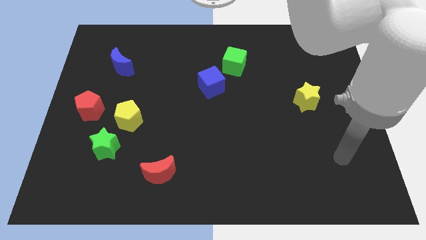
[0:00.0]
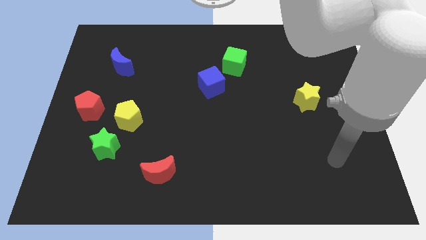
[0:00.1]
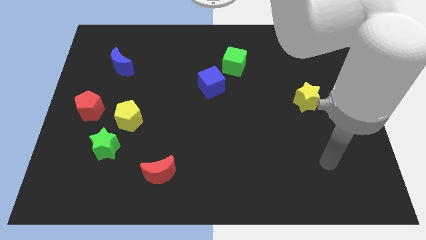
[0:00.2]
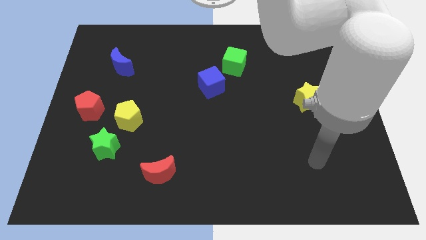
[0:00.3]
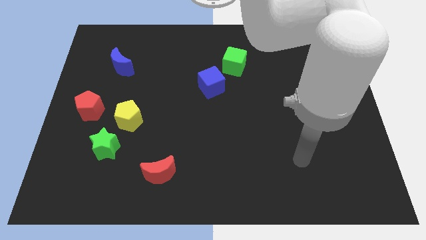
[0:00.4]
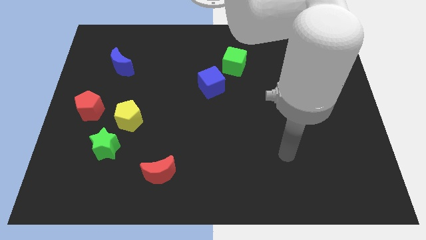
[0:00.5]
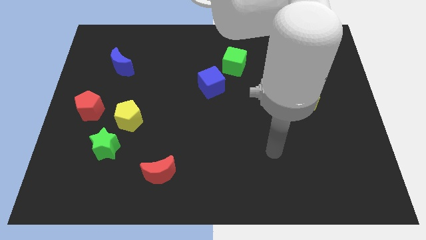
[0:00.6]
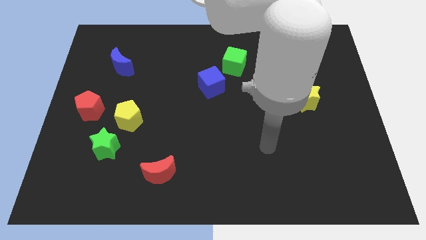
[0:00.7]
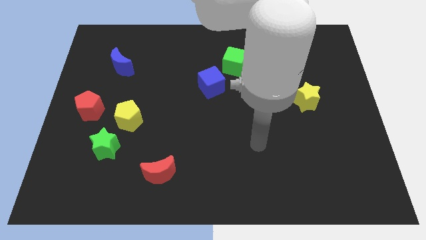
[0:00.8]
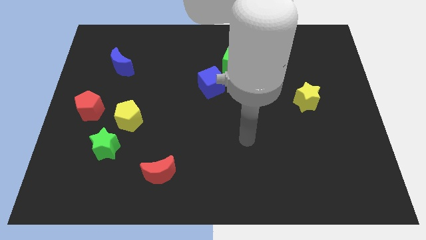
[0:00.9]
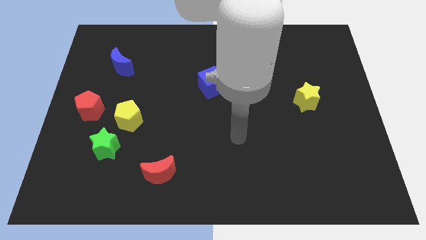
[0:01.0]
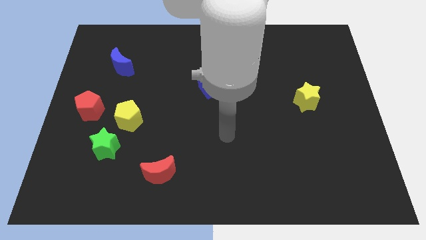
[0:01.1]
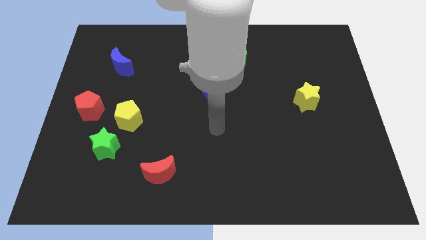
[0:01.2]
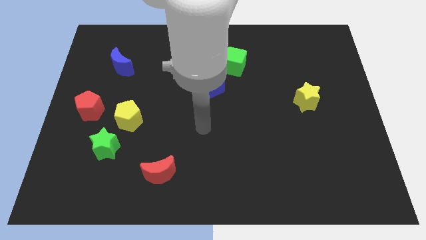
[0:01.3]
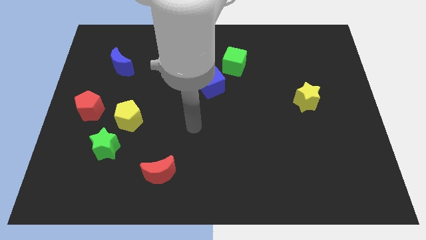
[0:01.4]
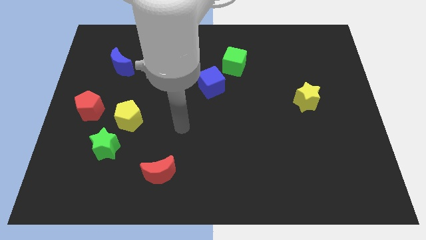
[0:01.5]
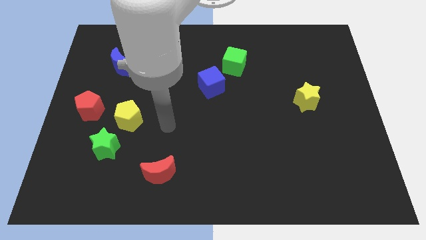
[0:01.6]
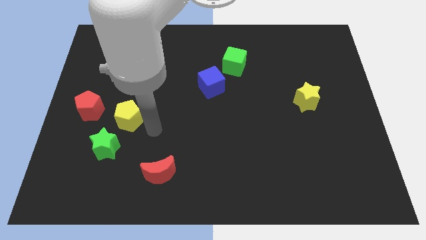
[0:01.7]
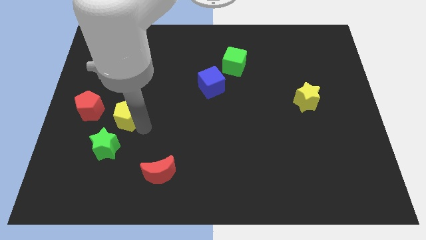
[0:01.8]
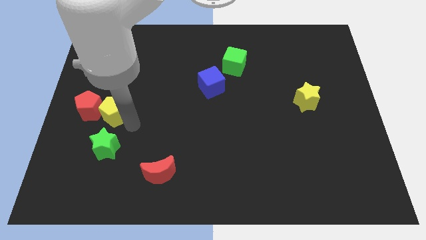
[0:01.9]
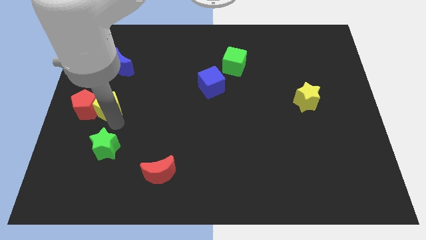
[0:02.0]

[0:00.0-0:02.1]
pull the green star apart from the yellow pentagon

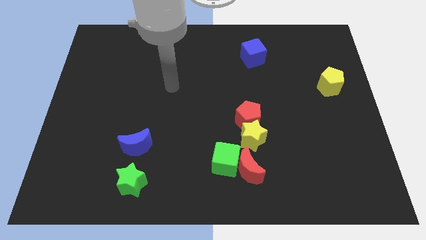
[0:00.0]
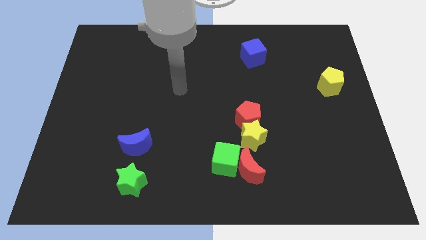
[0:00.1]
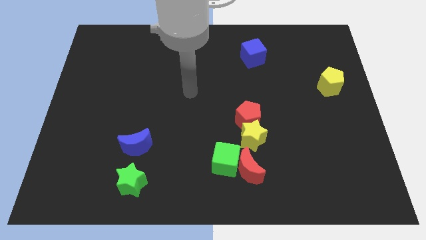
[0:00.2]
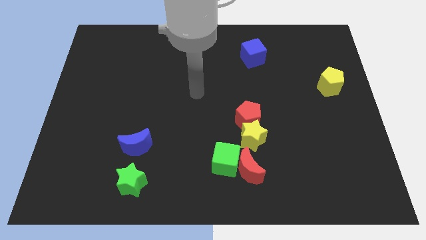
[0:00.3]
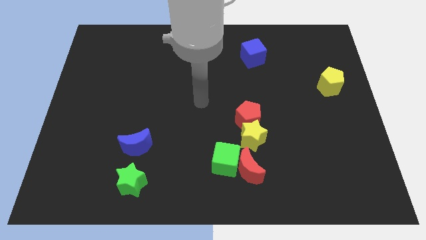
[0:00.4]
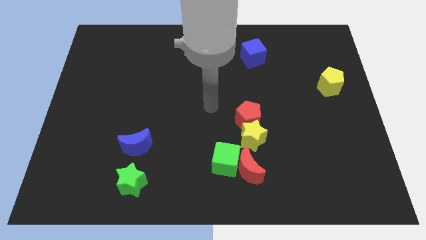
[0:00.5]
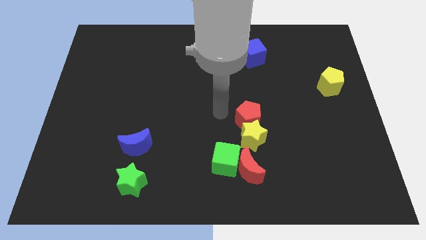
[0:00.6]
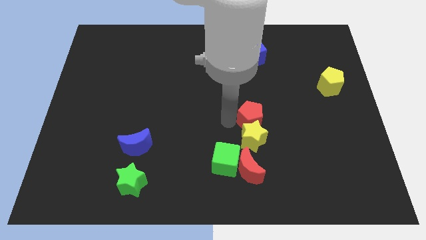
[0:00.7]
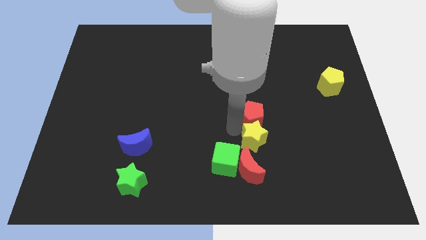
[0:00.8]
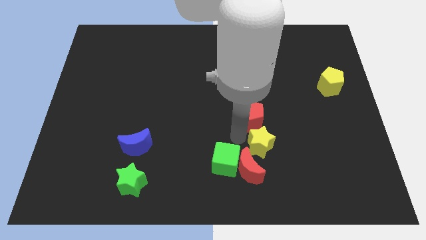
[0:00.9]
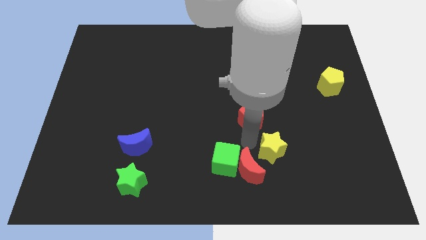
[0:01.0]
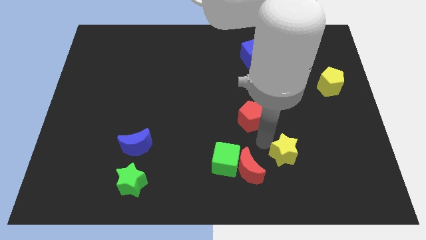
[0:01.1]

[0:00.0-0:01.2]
pull the red pentagon apart from the yellow star

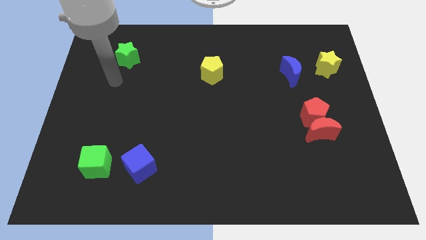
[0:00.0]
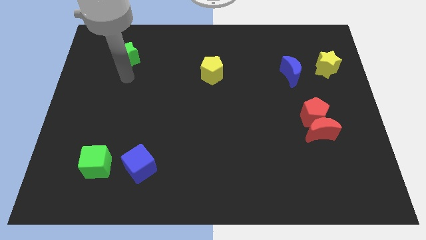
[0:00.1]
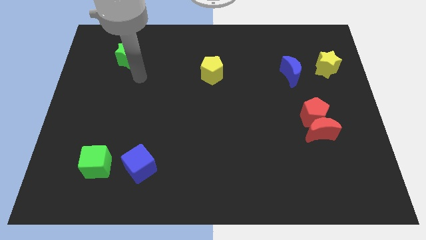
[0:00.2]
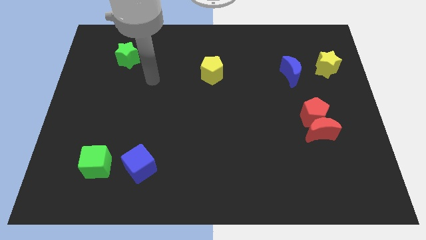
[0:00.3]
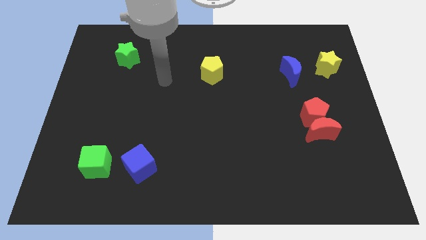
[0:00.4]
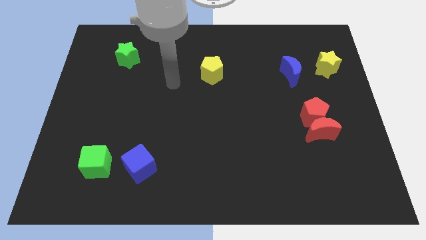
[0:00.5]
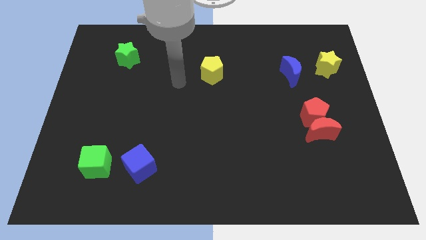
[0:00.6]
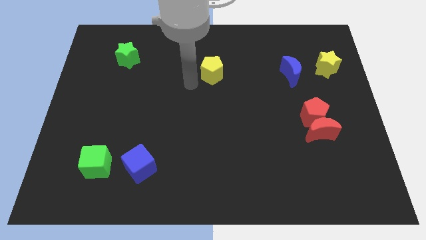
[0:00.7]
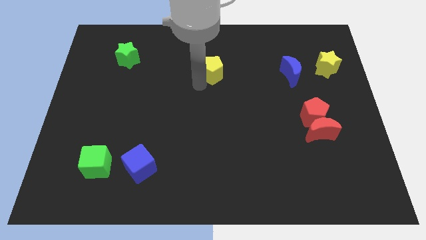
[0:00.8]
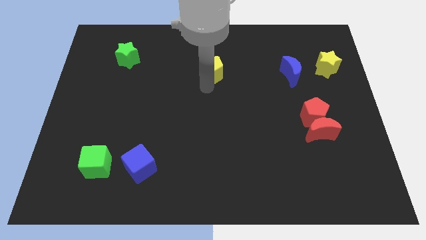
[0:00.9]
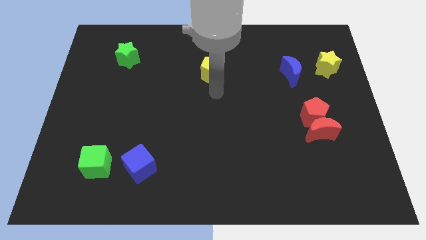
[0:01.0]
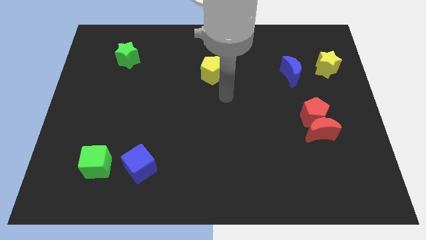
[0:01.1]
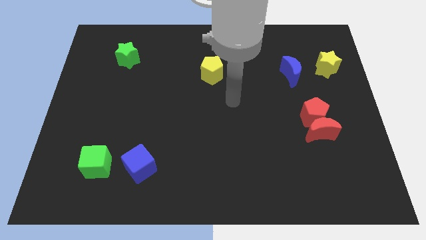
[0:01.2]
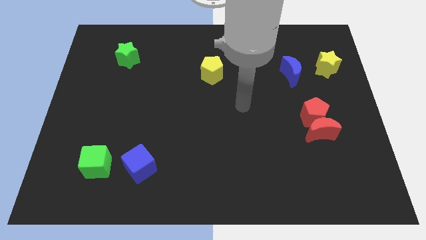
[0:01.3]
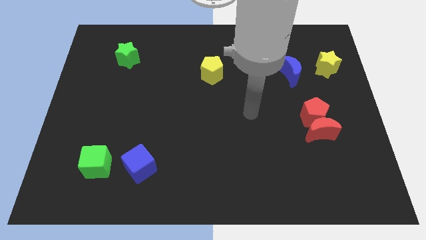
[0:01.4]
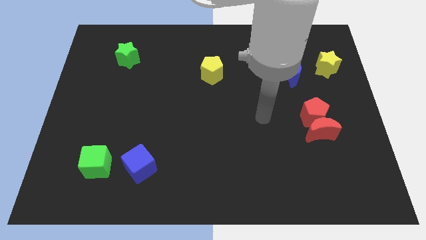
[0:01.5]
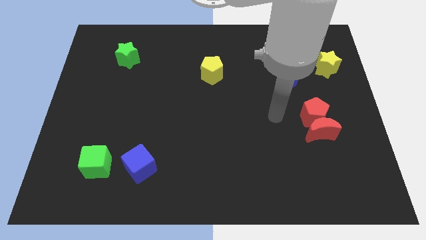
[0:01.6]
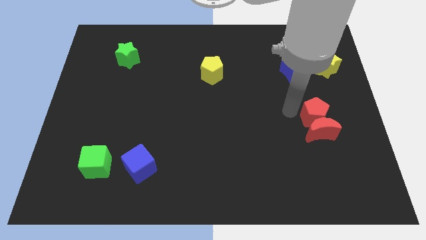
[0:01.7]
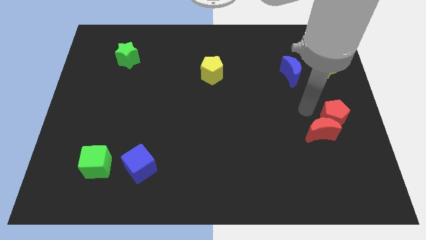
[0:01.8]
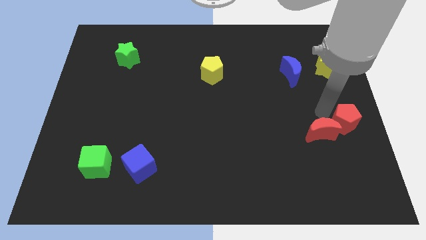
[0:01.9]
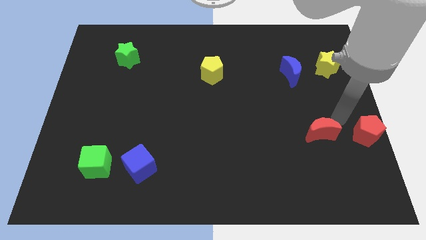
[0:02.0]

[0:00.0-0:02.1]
move the red moon away from the red pentagon

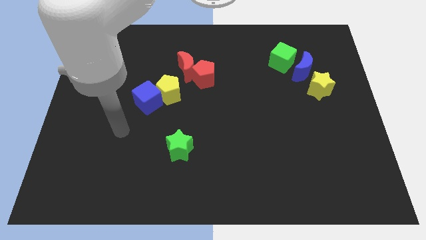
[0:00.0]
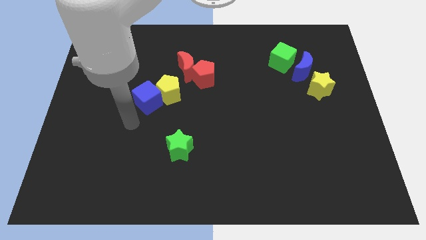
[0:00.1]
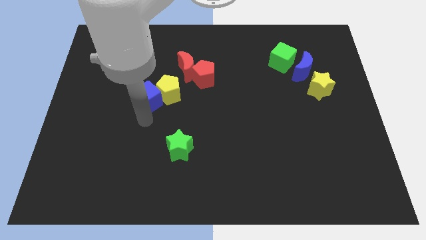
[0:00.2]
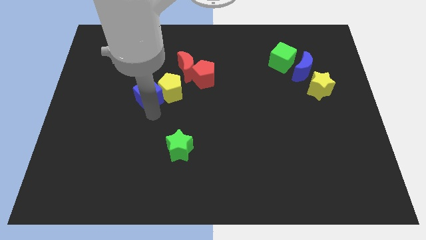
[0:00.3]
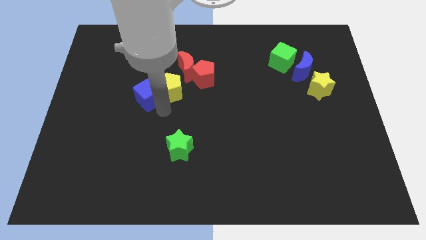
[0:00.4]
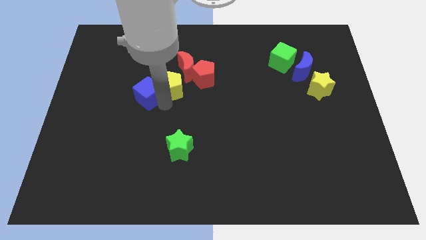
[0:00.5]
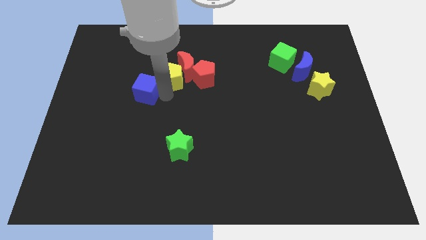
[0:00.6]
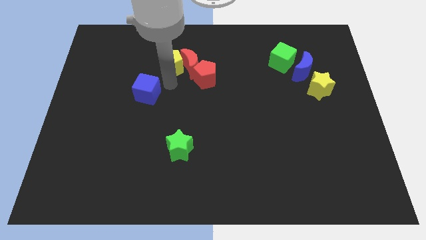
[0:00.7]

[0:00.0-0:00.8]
move the blue cube away from the yellow pentagon

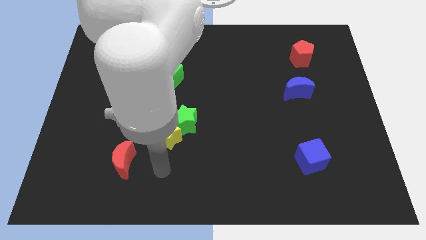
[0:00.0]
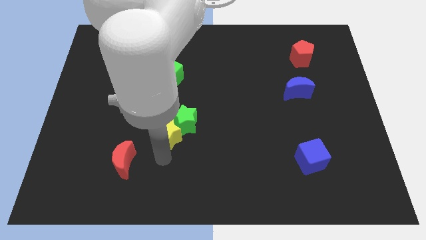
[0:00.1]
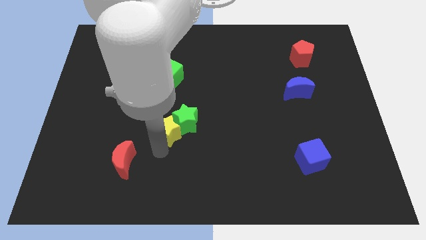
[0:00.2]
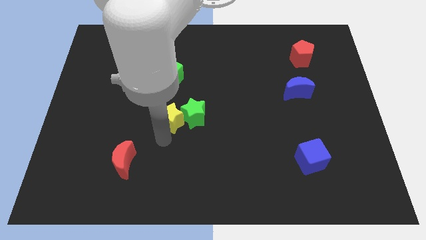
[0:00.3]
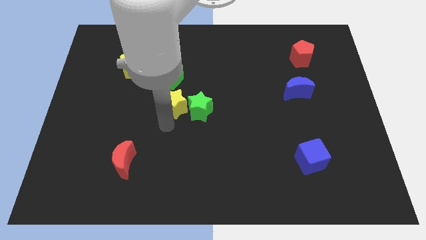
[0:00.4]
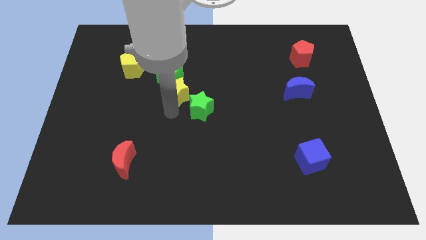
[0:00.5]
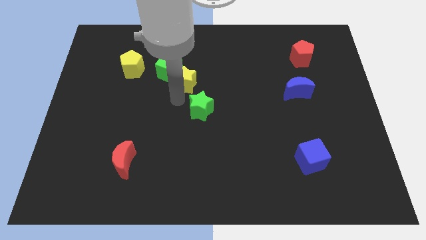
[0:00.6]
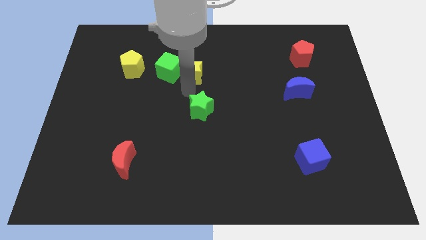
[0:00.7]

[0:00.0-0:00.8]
pull the green star apart from the yellow star

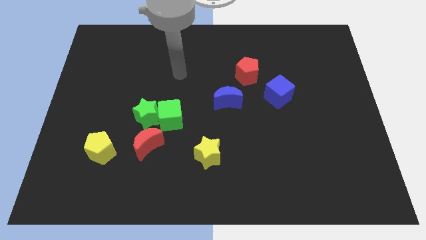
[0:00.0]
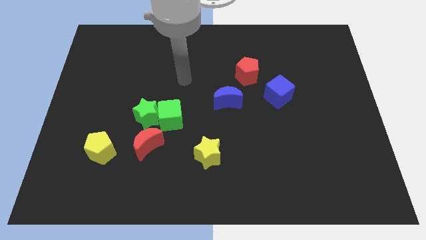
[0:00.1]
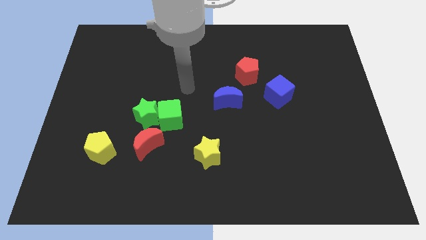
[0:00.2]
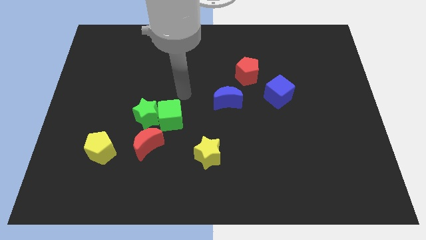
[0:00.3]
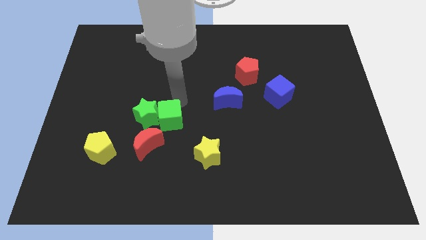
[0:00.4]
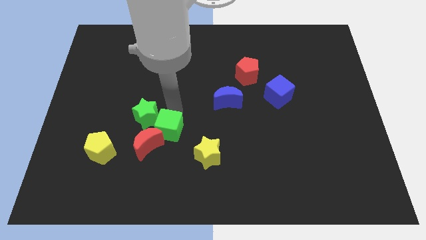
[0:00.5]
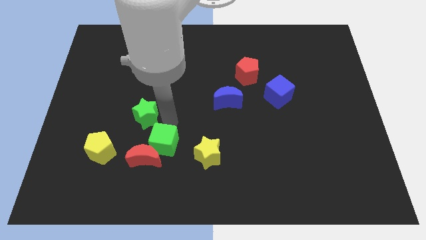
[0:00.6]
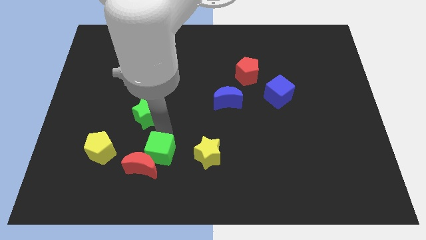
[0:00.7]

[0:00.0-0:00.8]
pull the green star apart from the green cube and red moon

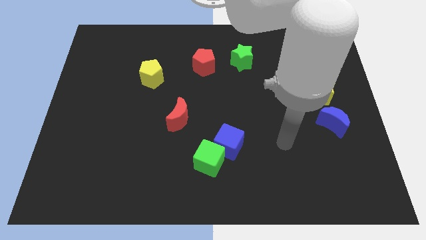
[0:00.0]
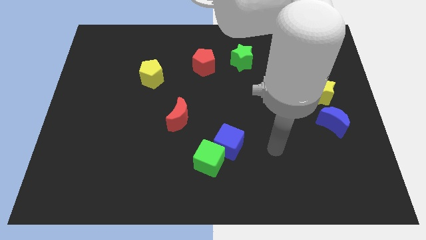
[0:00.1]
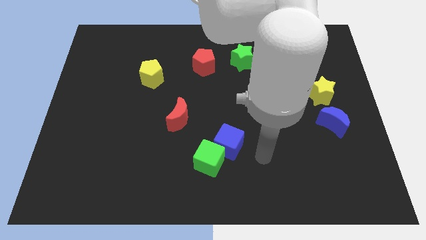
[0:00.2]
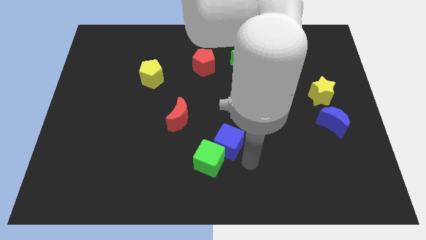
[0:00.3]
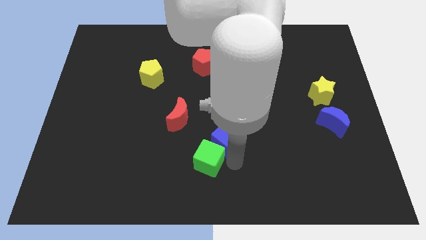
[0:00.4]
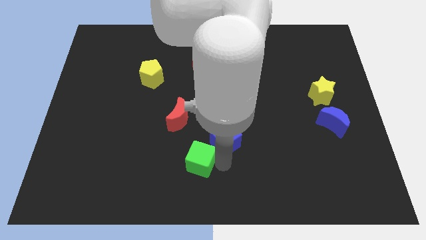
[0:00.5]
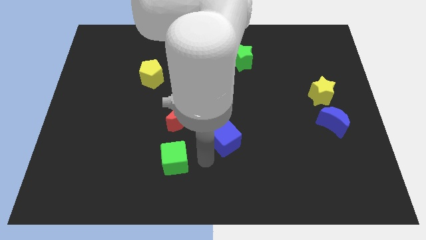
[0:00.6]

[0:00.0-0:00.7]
separate the blue cube from the green cube

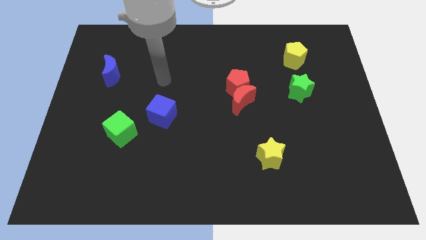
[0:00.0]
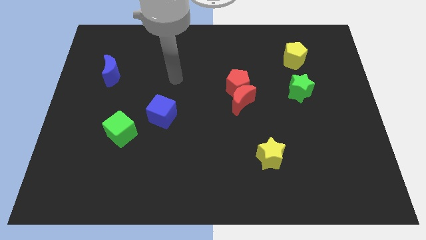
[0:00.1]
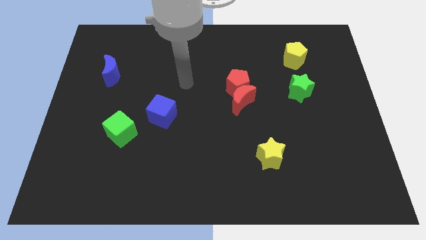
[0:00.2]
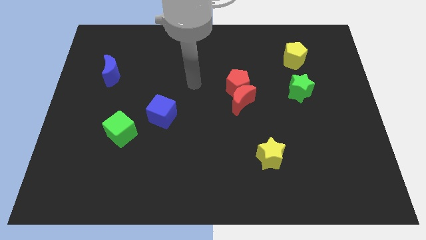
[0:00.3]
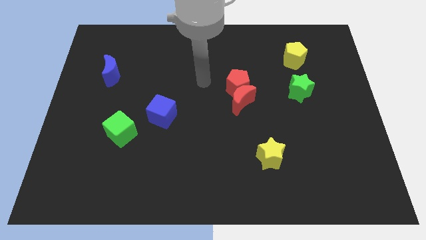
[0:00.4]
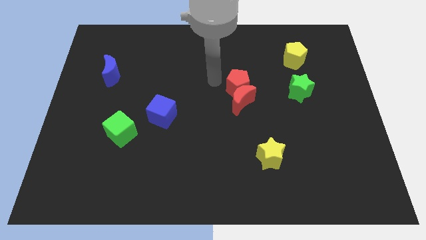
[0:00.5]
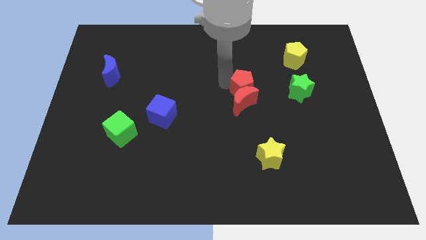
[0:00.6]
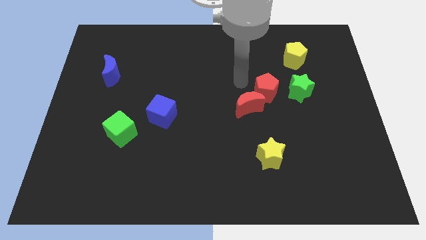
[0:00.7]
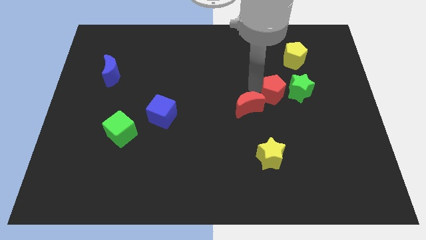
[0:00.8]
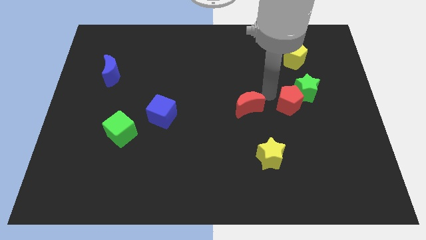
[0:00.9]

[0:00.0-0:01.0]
separate the red moon from the red pentagon
